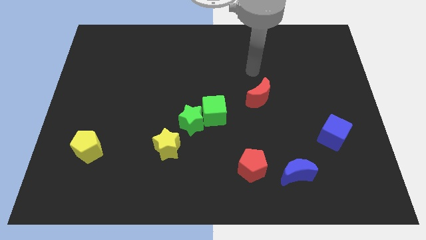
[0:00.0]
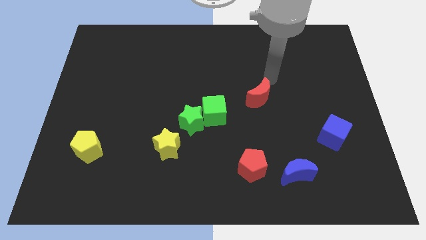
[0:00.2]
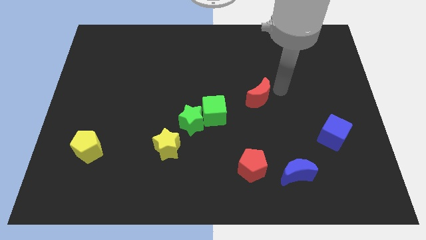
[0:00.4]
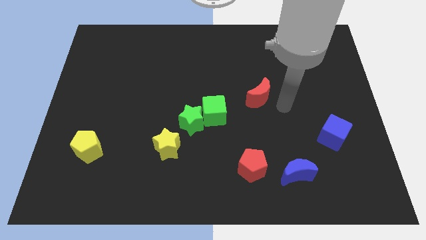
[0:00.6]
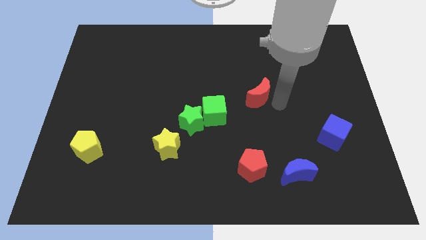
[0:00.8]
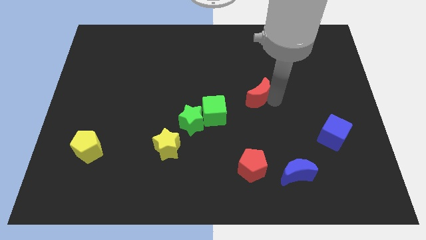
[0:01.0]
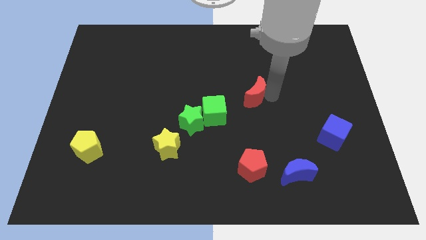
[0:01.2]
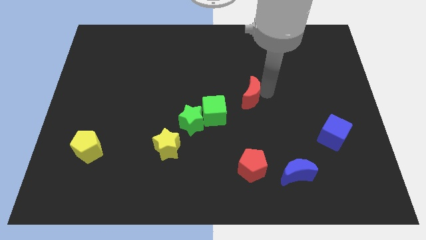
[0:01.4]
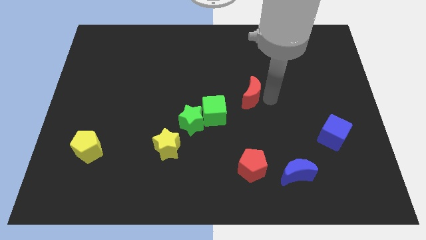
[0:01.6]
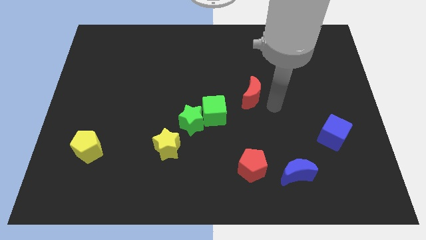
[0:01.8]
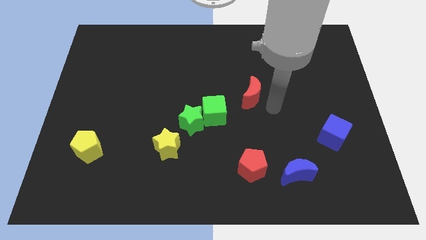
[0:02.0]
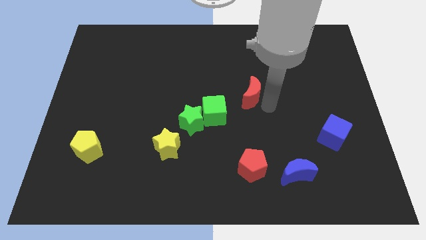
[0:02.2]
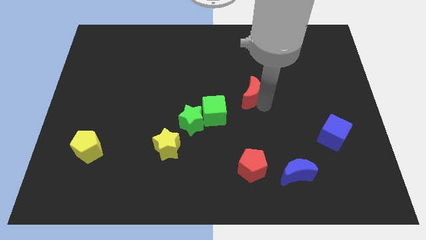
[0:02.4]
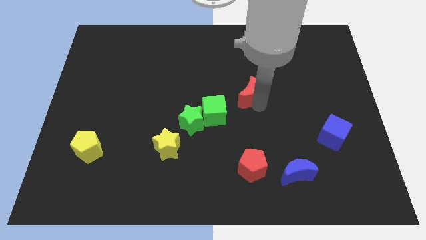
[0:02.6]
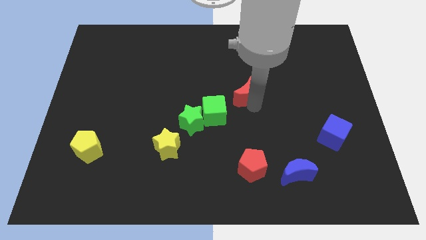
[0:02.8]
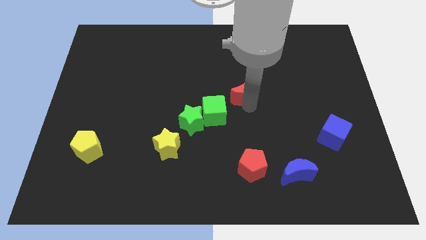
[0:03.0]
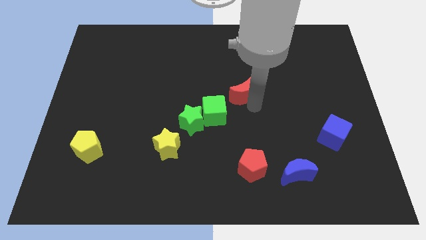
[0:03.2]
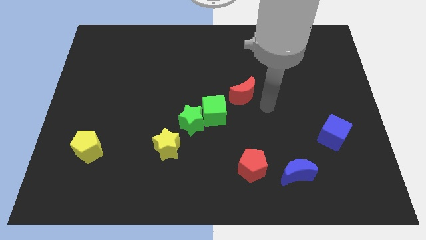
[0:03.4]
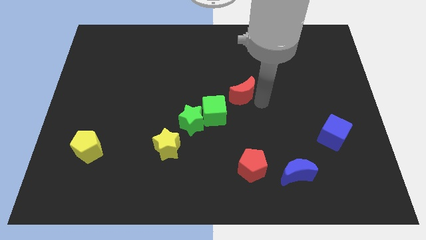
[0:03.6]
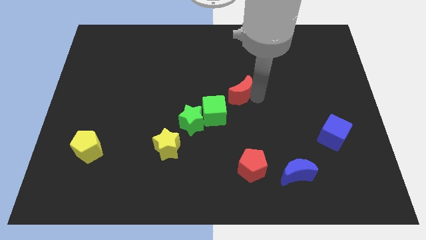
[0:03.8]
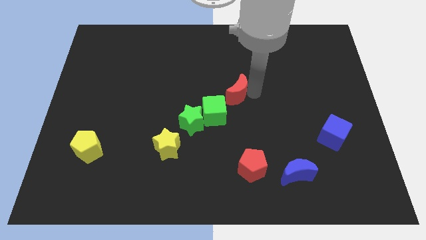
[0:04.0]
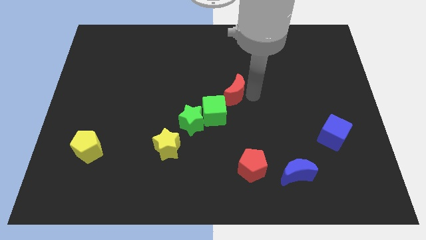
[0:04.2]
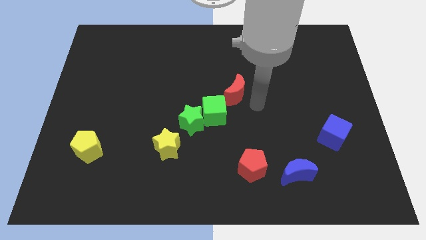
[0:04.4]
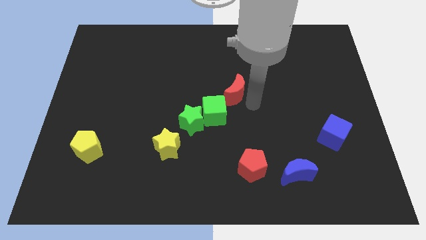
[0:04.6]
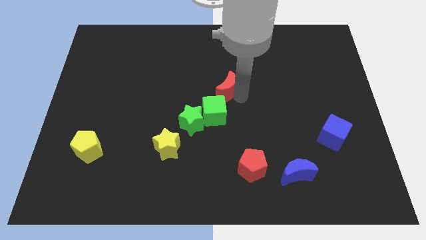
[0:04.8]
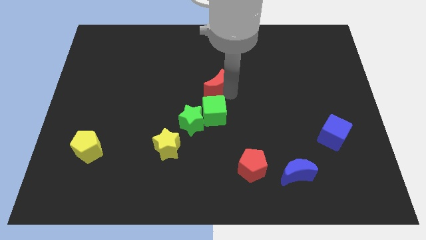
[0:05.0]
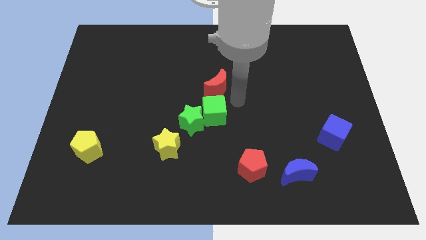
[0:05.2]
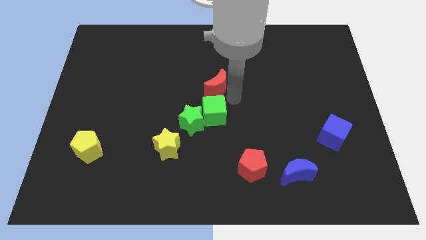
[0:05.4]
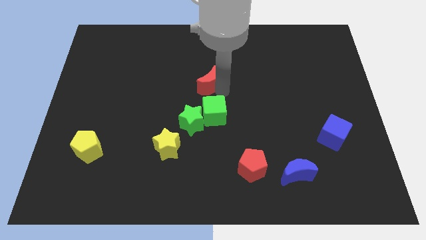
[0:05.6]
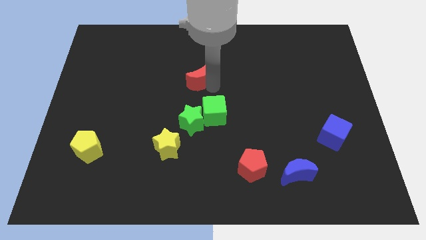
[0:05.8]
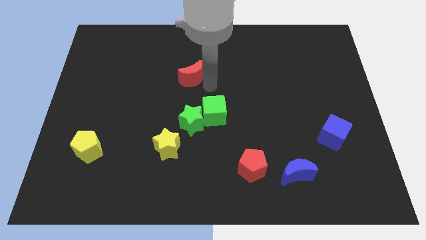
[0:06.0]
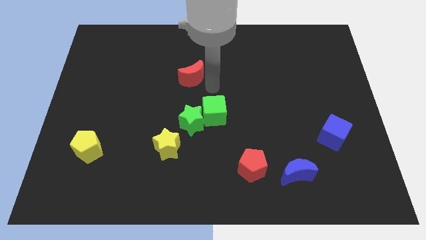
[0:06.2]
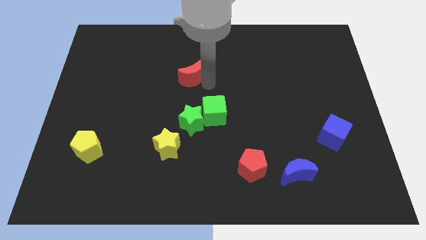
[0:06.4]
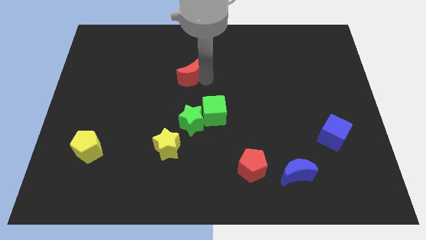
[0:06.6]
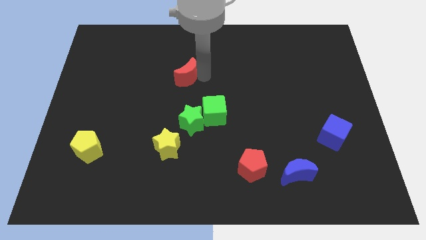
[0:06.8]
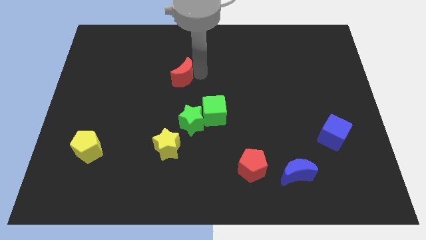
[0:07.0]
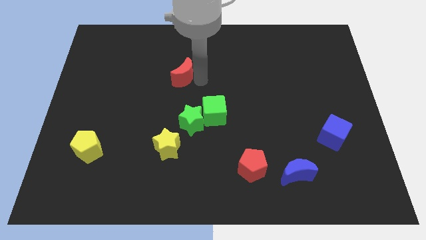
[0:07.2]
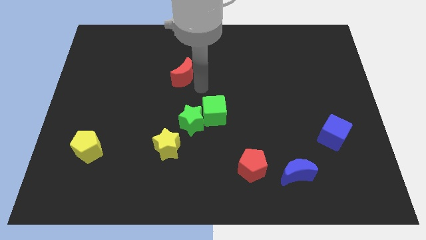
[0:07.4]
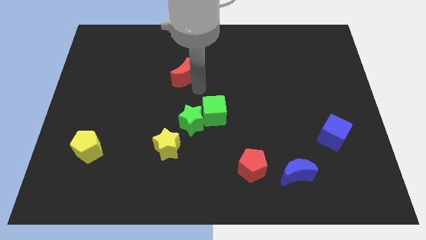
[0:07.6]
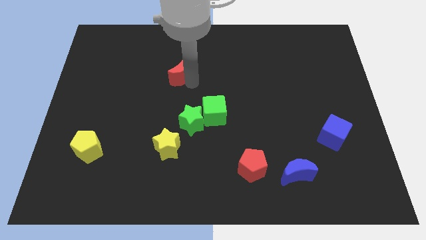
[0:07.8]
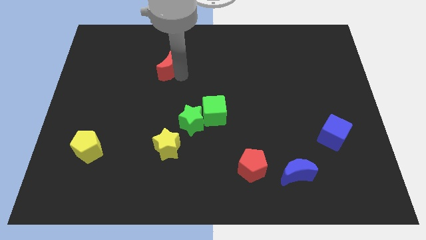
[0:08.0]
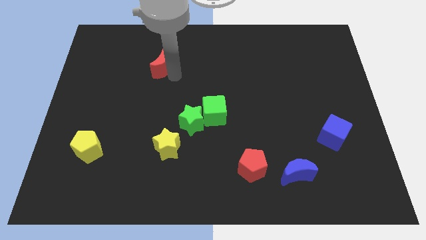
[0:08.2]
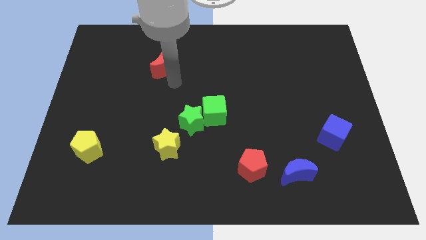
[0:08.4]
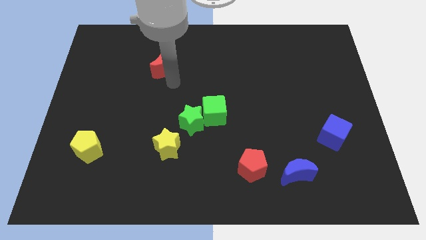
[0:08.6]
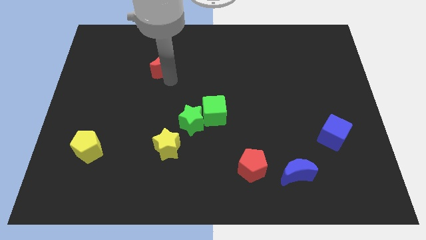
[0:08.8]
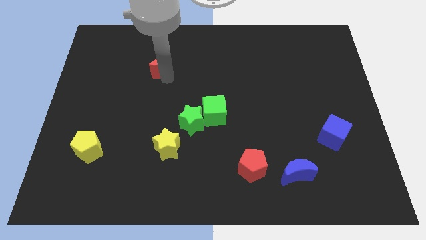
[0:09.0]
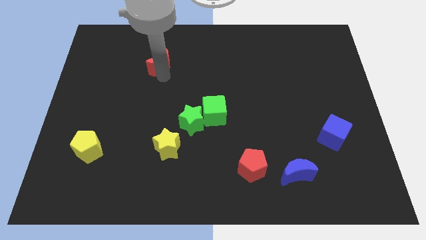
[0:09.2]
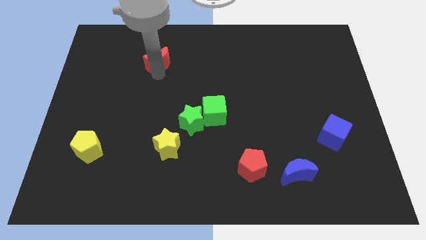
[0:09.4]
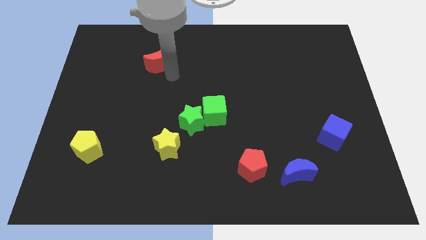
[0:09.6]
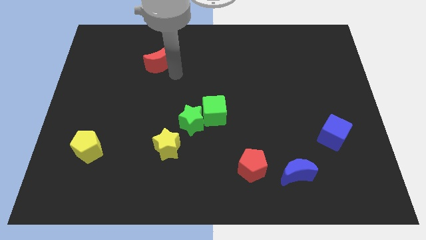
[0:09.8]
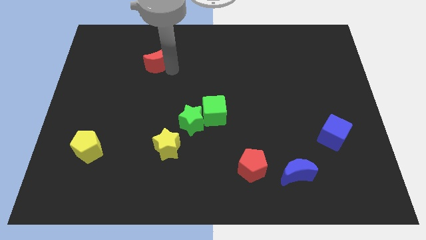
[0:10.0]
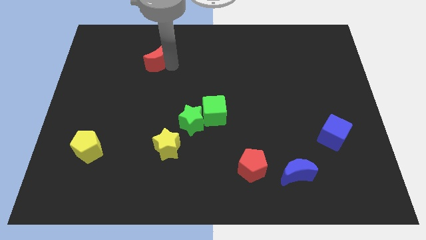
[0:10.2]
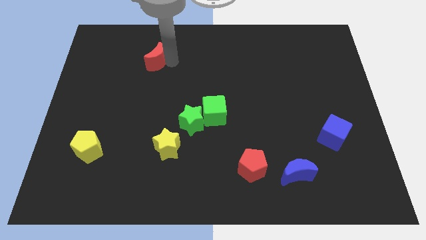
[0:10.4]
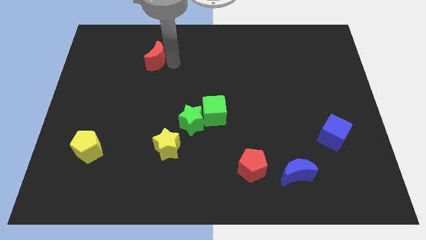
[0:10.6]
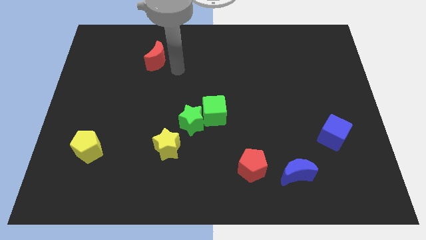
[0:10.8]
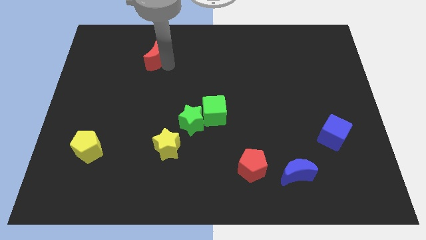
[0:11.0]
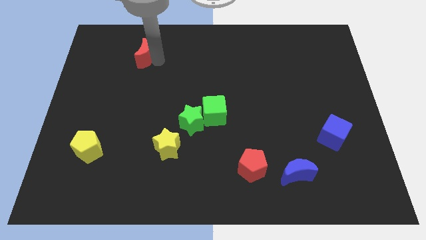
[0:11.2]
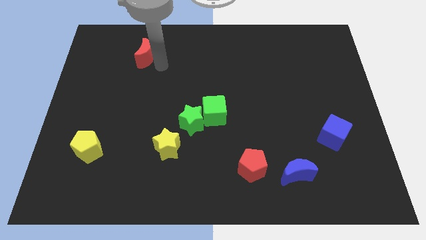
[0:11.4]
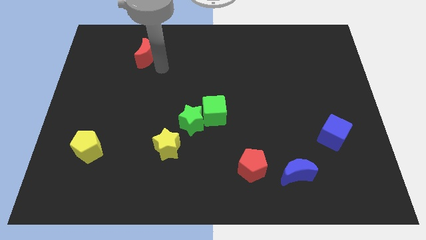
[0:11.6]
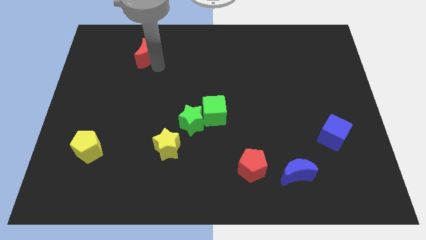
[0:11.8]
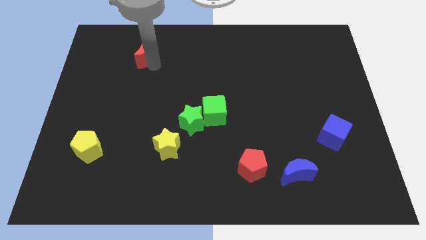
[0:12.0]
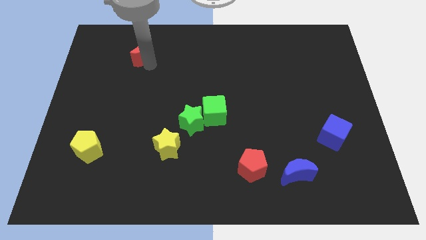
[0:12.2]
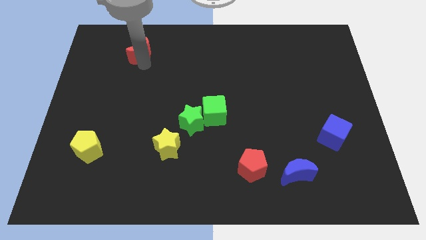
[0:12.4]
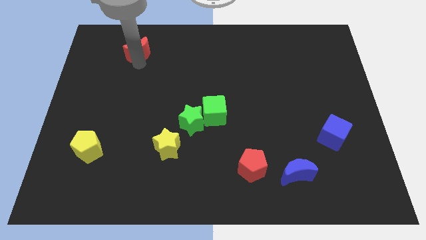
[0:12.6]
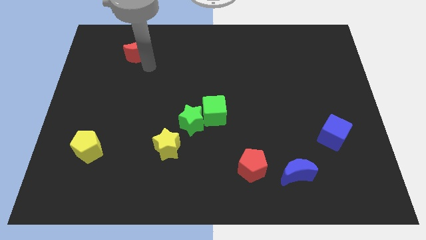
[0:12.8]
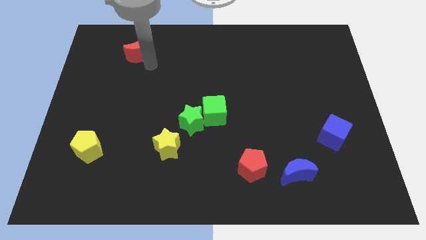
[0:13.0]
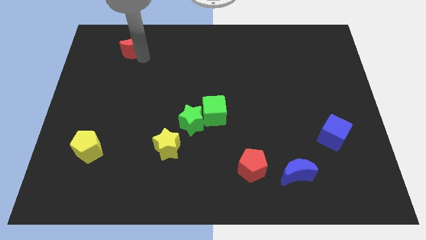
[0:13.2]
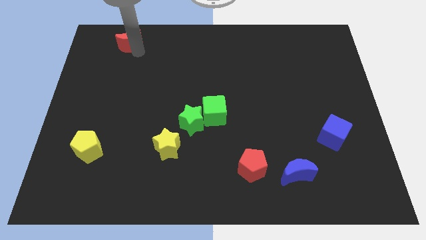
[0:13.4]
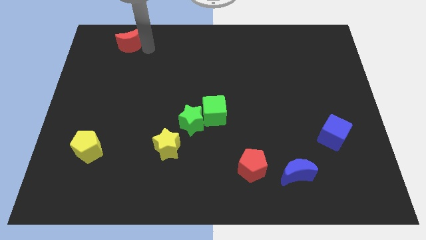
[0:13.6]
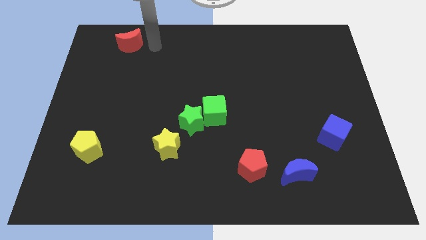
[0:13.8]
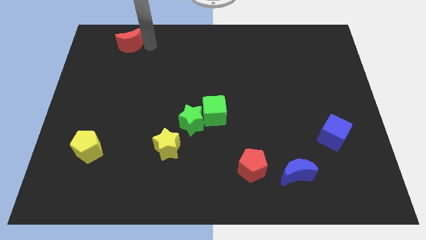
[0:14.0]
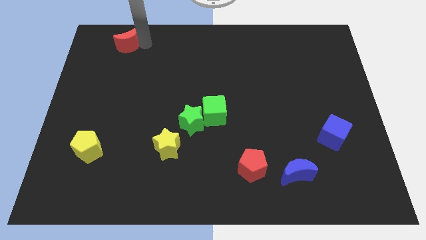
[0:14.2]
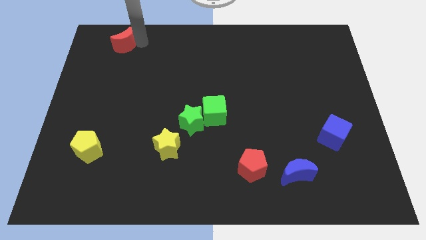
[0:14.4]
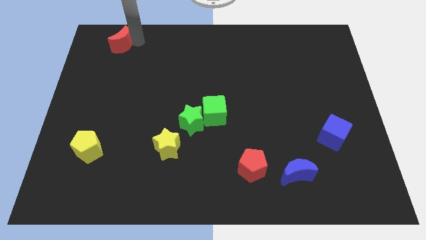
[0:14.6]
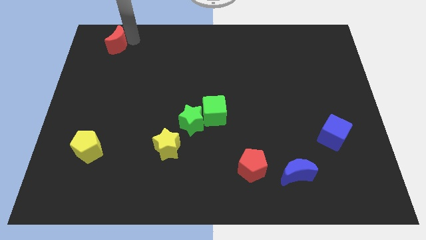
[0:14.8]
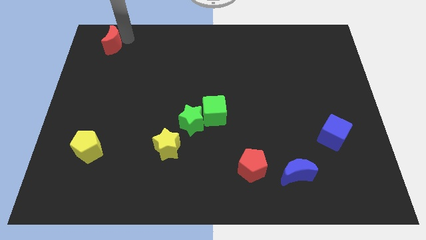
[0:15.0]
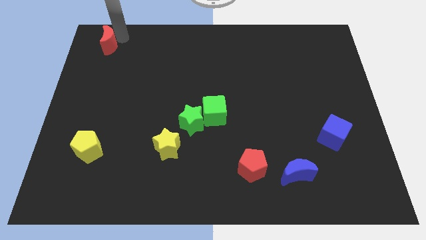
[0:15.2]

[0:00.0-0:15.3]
move the red moon to the top left corner
